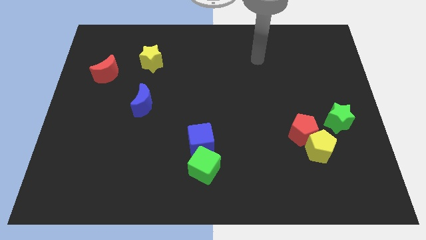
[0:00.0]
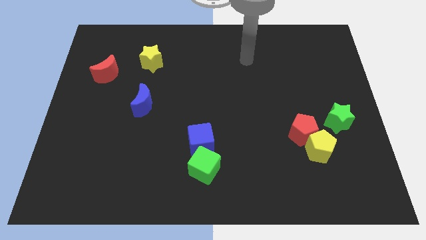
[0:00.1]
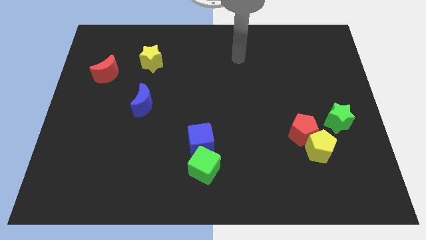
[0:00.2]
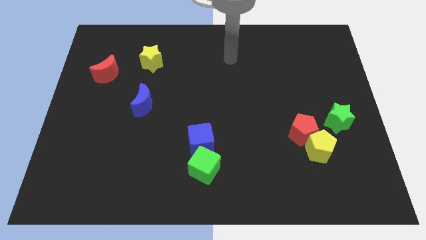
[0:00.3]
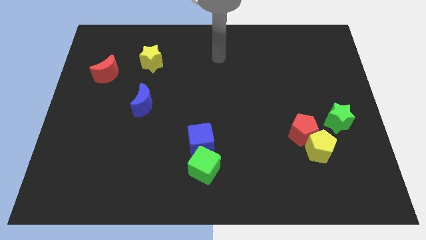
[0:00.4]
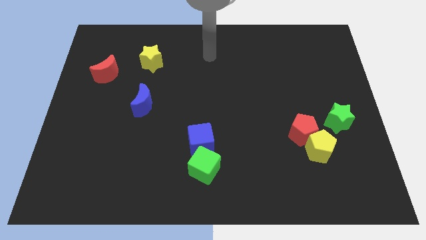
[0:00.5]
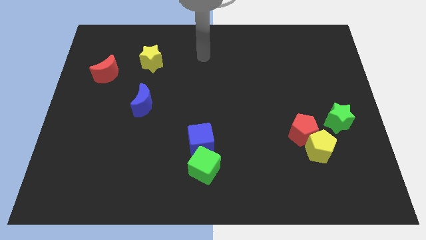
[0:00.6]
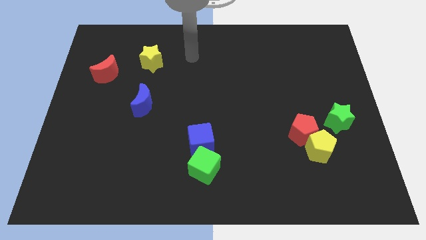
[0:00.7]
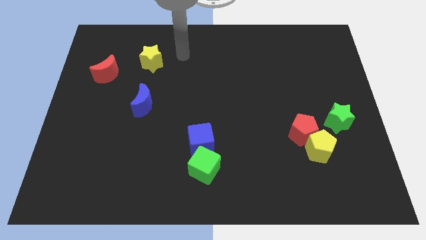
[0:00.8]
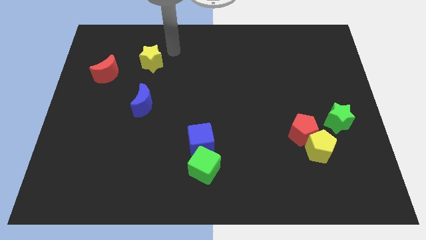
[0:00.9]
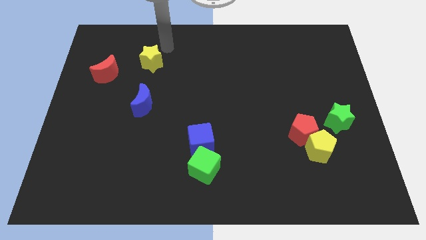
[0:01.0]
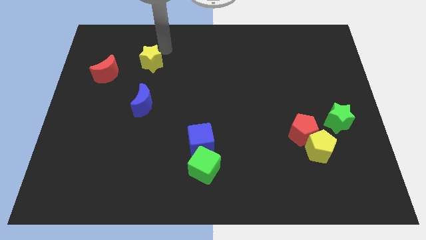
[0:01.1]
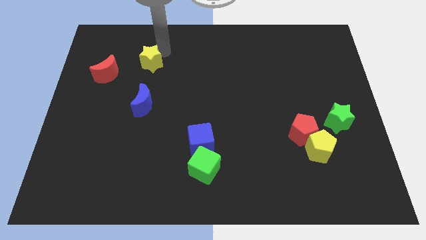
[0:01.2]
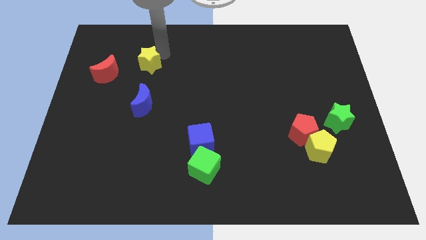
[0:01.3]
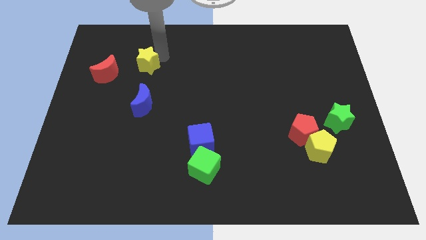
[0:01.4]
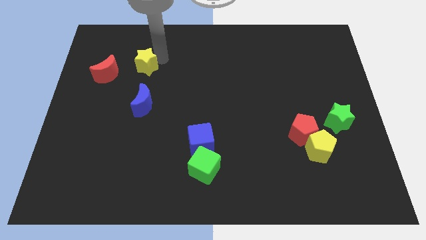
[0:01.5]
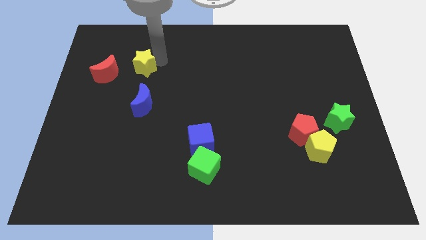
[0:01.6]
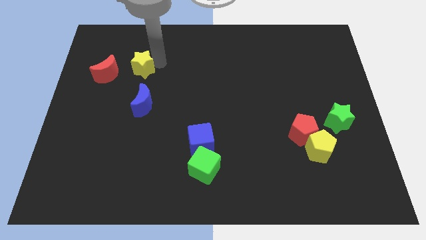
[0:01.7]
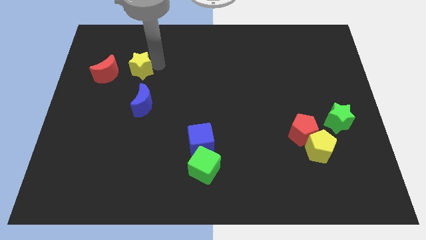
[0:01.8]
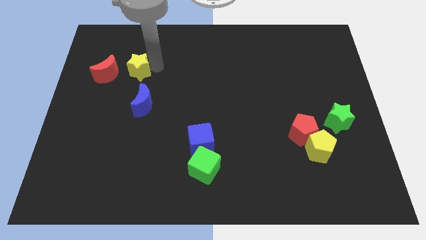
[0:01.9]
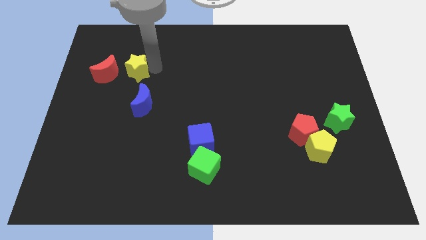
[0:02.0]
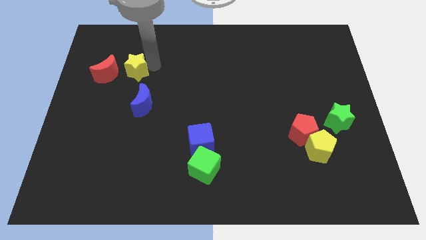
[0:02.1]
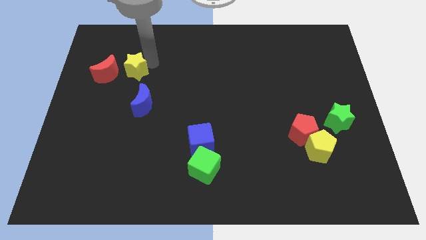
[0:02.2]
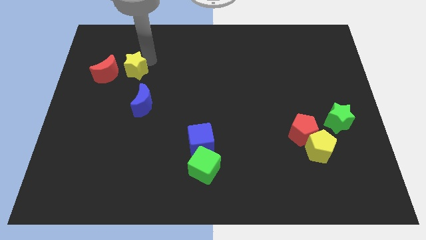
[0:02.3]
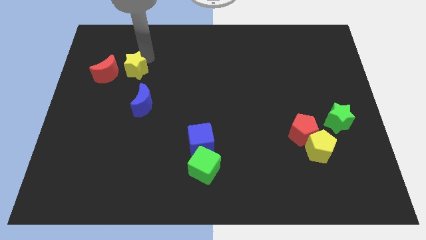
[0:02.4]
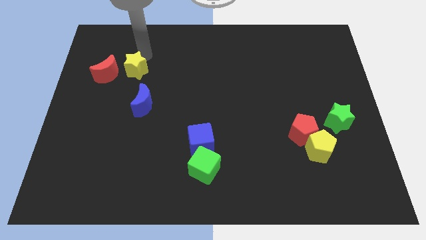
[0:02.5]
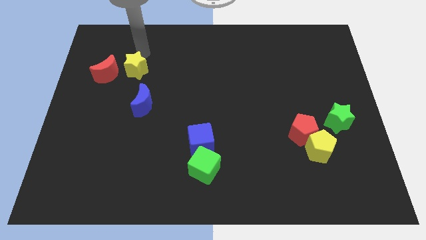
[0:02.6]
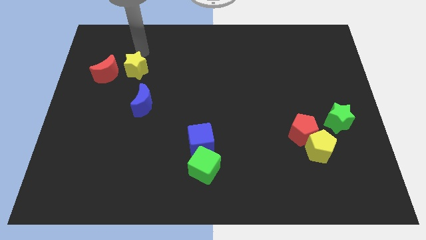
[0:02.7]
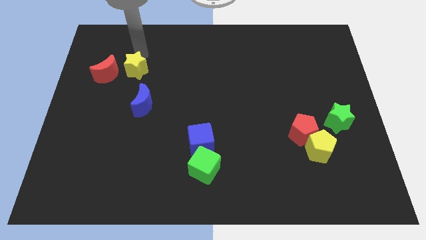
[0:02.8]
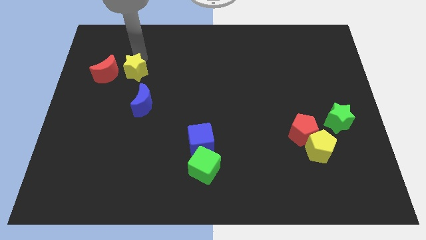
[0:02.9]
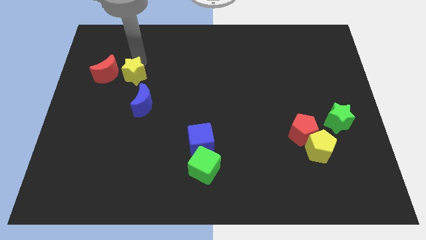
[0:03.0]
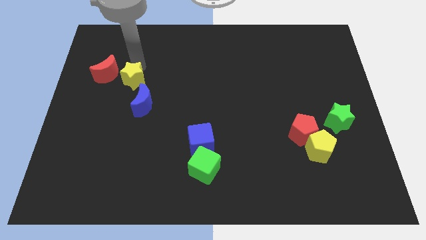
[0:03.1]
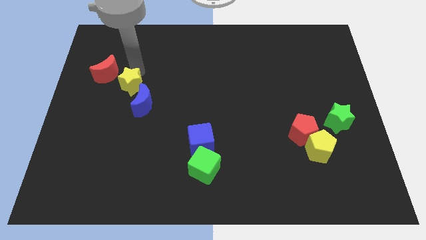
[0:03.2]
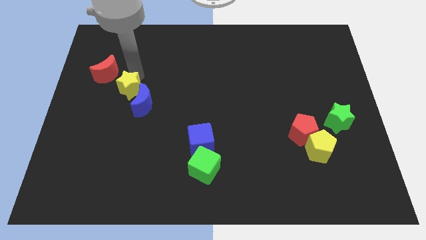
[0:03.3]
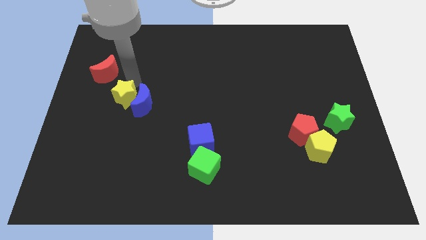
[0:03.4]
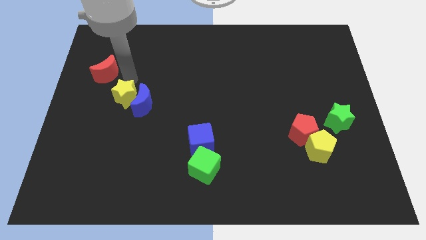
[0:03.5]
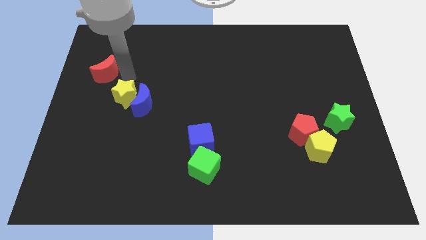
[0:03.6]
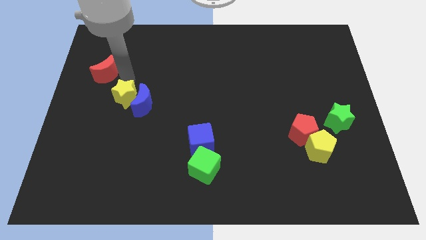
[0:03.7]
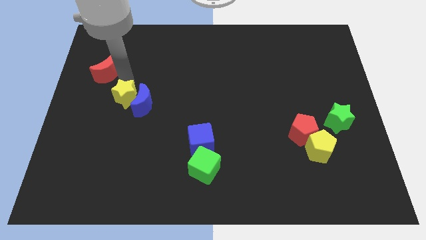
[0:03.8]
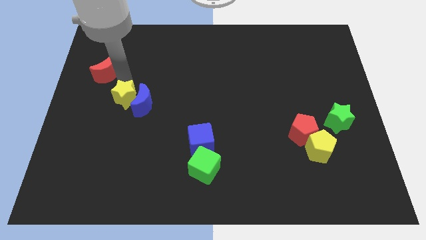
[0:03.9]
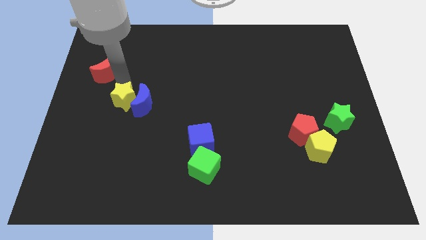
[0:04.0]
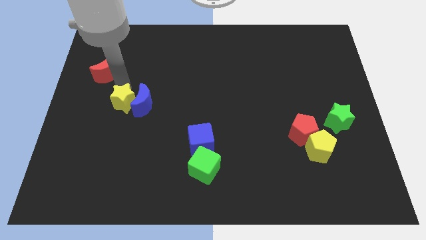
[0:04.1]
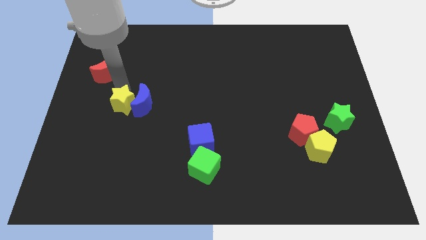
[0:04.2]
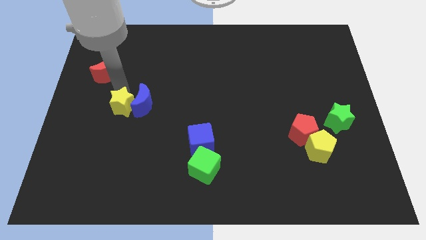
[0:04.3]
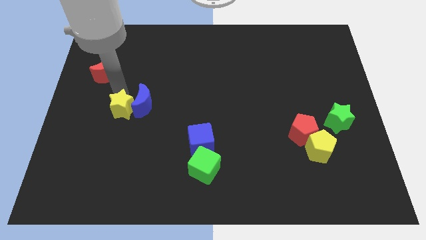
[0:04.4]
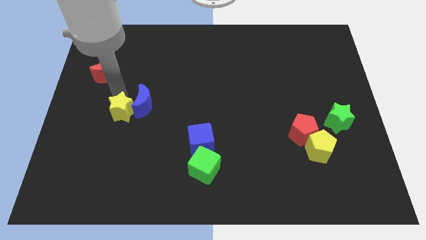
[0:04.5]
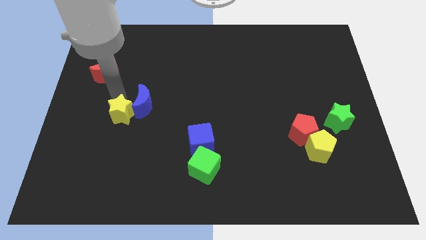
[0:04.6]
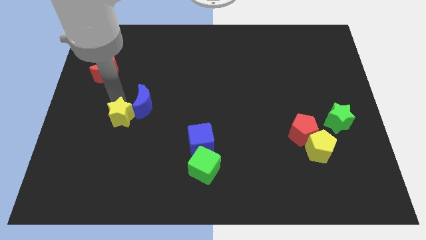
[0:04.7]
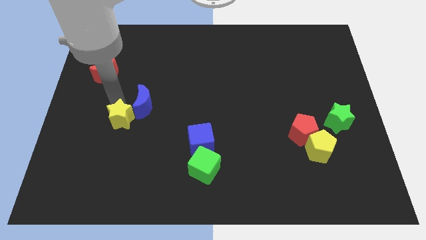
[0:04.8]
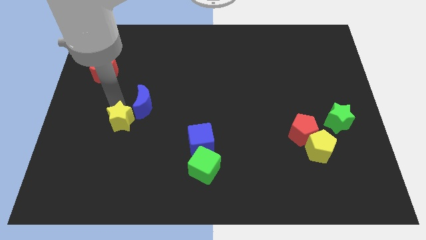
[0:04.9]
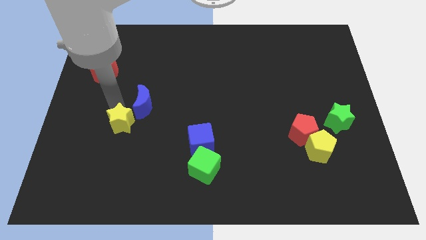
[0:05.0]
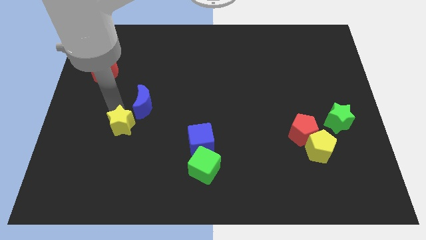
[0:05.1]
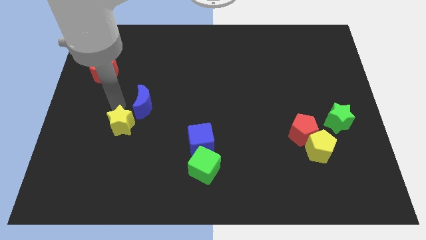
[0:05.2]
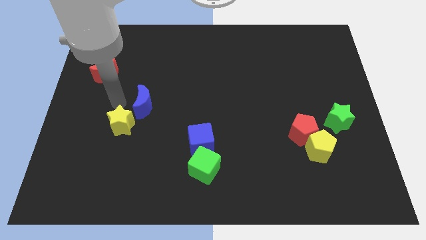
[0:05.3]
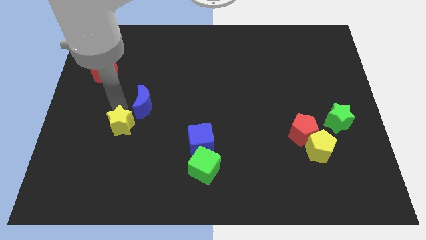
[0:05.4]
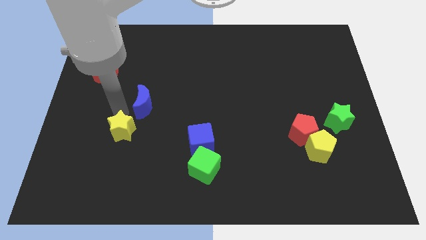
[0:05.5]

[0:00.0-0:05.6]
push the yellow star down

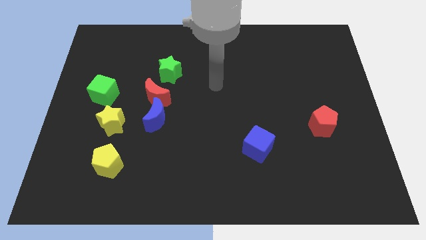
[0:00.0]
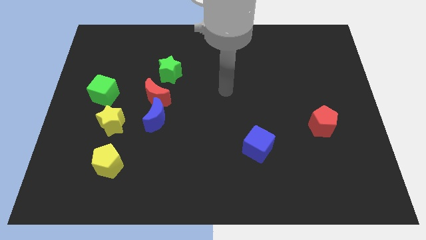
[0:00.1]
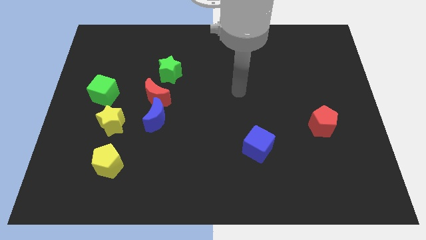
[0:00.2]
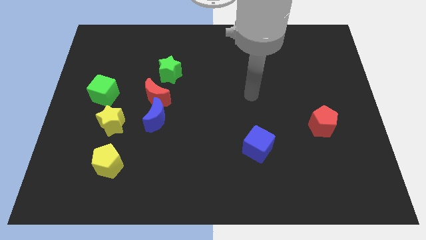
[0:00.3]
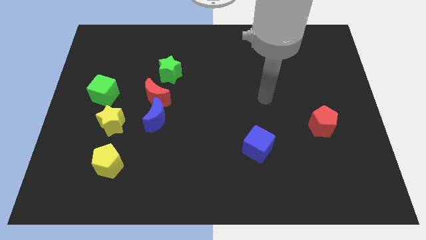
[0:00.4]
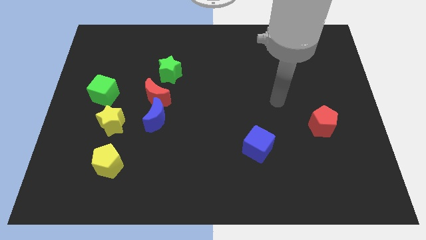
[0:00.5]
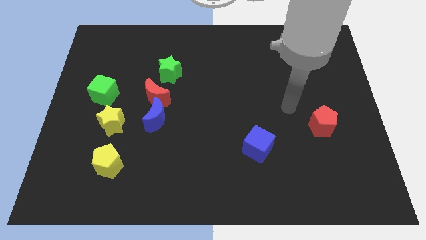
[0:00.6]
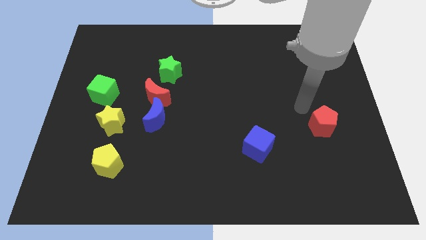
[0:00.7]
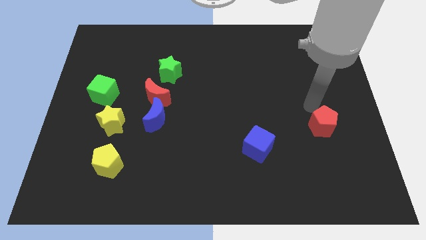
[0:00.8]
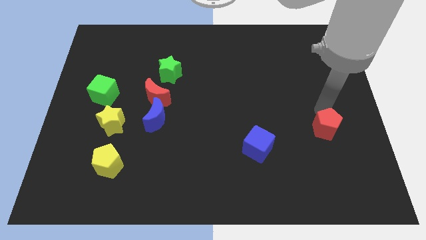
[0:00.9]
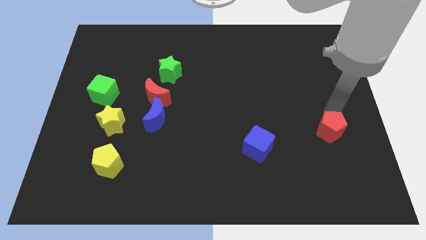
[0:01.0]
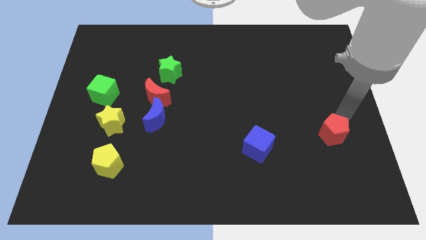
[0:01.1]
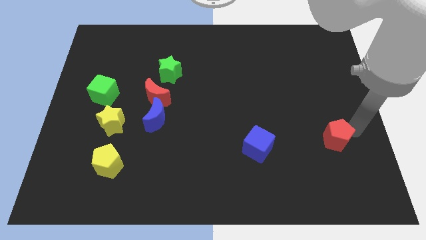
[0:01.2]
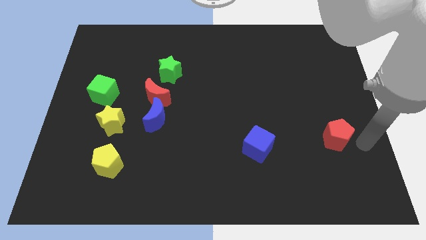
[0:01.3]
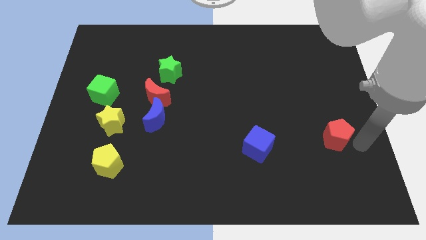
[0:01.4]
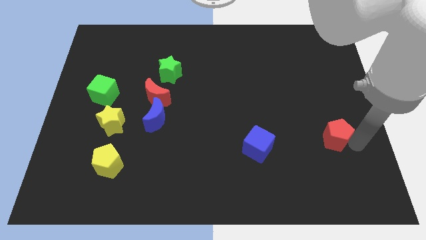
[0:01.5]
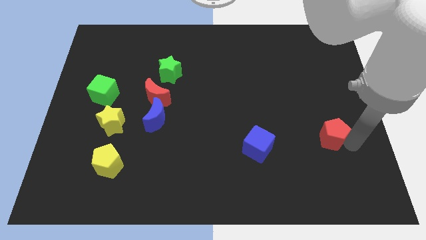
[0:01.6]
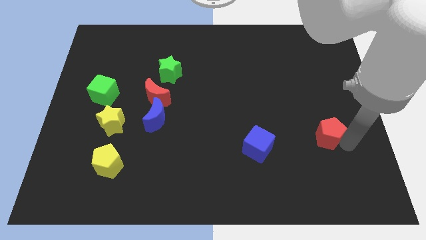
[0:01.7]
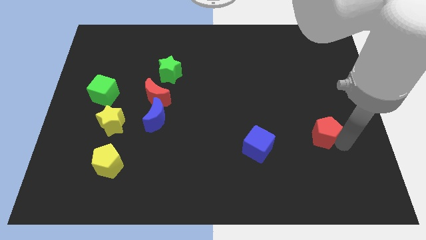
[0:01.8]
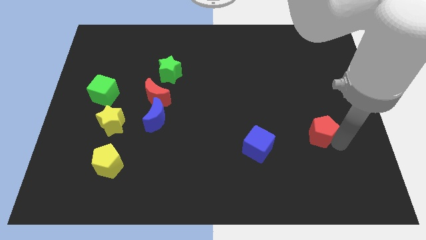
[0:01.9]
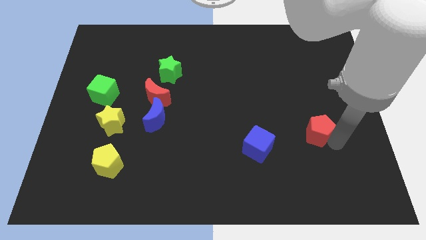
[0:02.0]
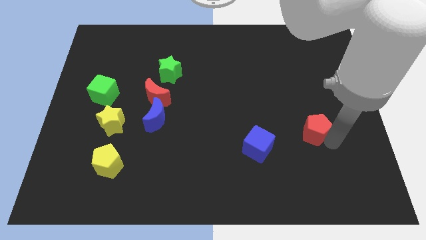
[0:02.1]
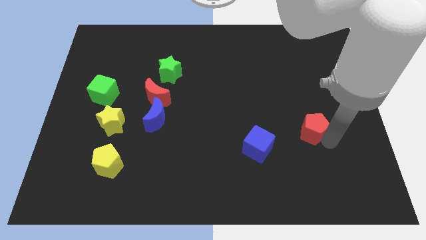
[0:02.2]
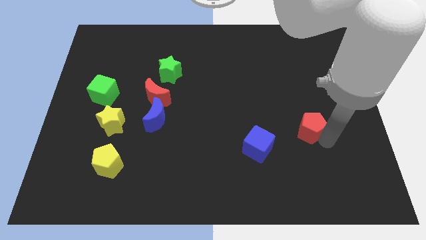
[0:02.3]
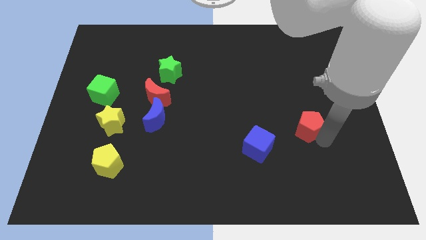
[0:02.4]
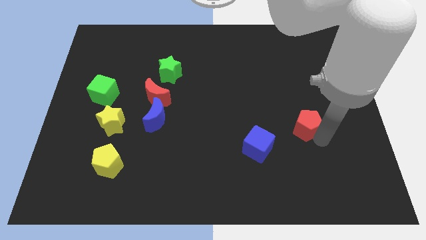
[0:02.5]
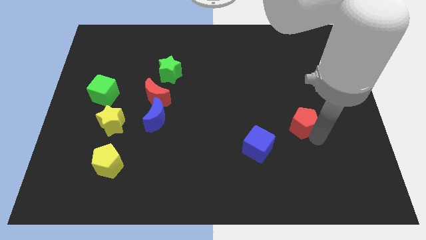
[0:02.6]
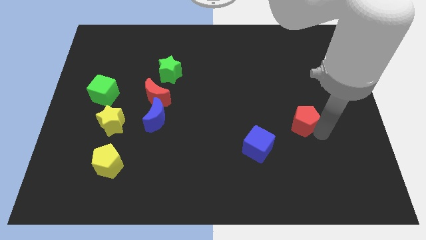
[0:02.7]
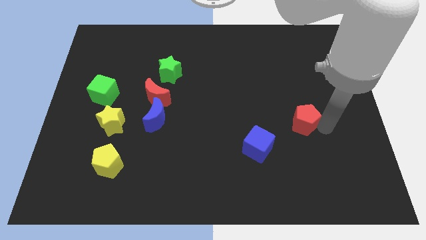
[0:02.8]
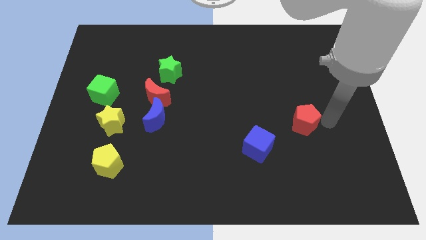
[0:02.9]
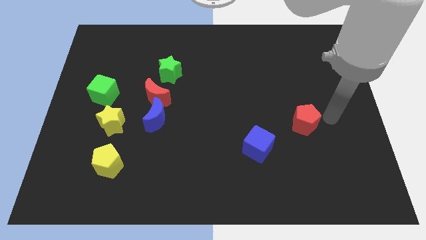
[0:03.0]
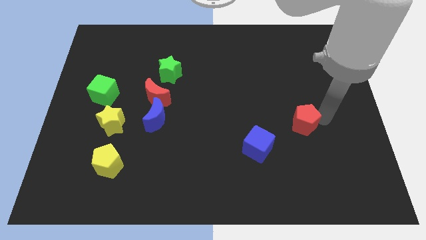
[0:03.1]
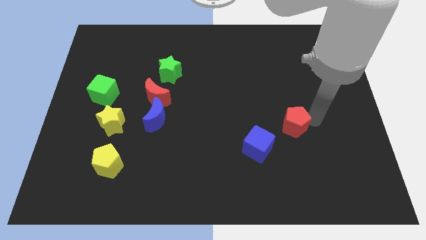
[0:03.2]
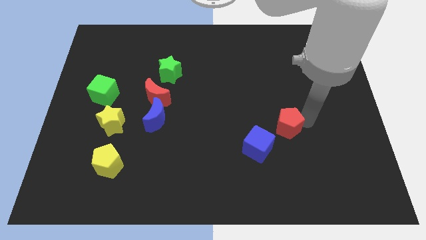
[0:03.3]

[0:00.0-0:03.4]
slightly push the red pentagon to the left
